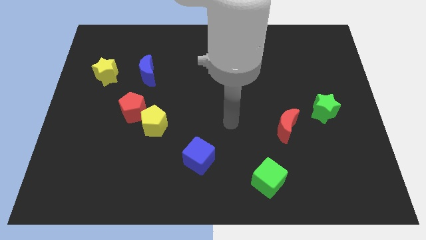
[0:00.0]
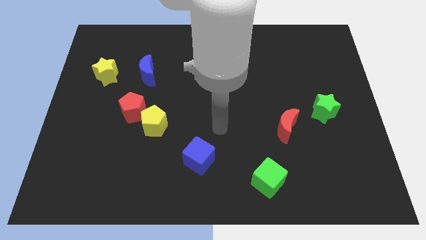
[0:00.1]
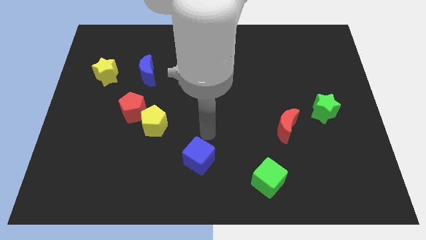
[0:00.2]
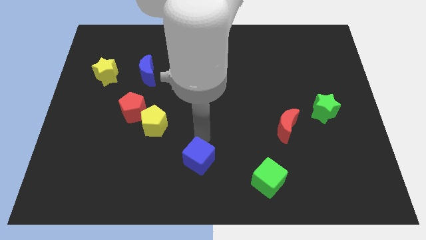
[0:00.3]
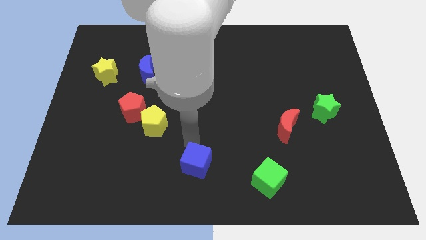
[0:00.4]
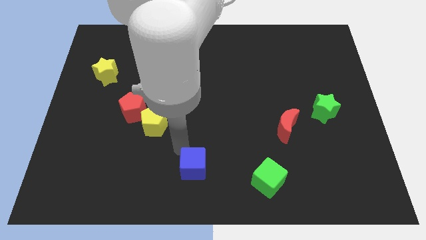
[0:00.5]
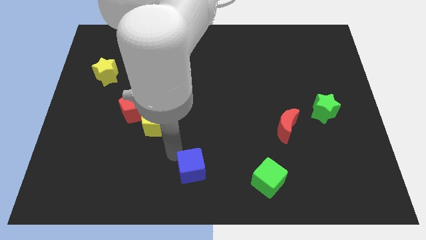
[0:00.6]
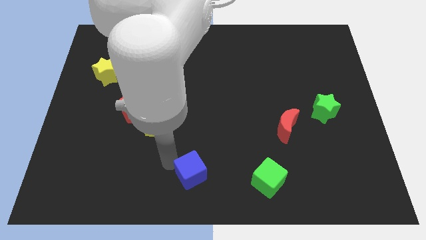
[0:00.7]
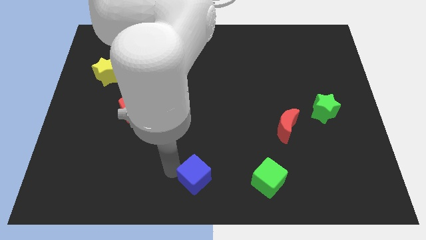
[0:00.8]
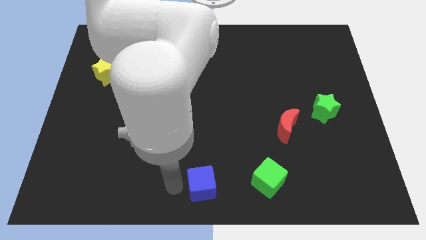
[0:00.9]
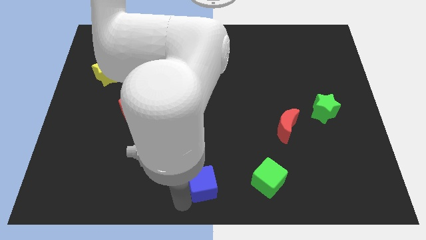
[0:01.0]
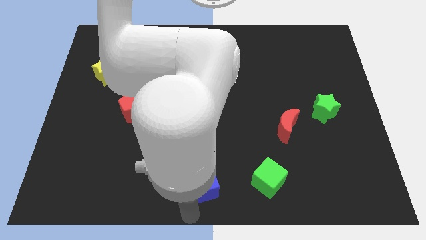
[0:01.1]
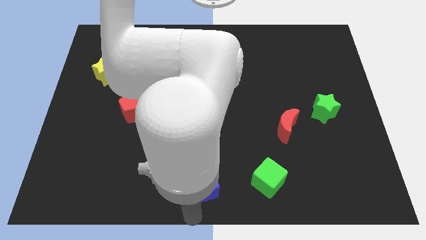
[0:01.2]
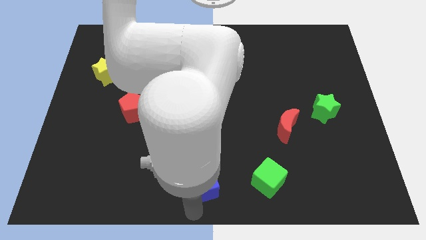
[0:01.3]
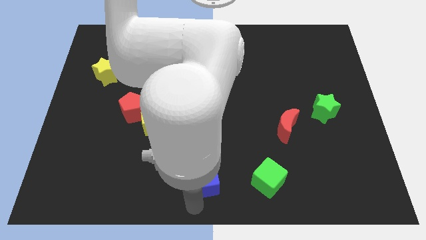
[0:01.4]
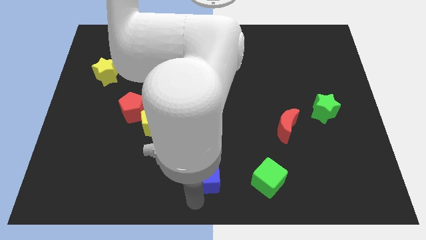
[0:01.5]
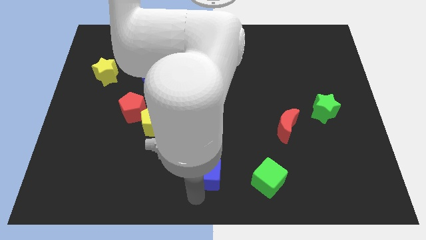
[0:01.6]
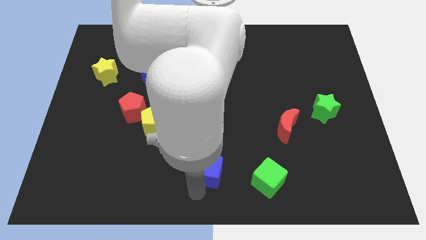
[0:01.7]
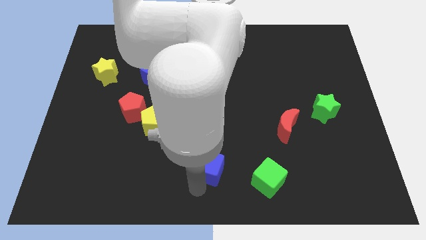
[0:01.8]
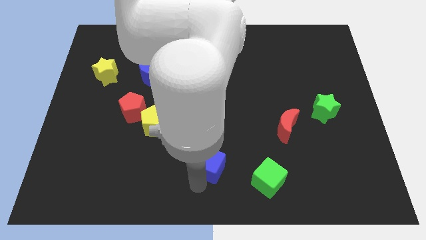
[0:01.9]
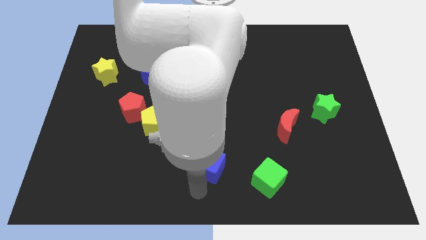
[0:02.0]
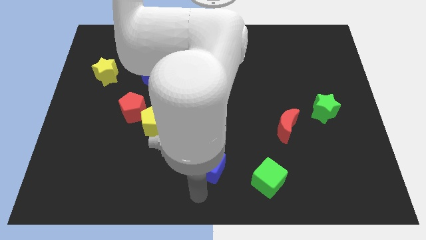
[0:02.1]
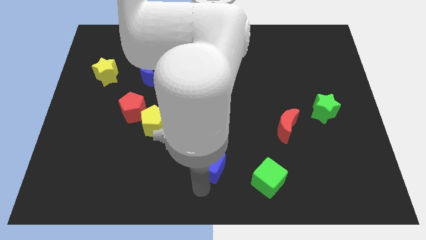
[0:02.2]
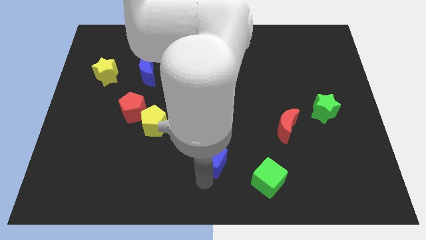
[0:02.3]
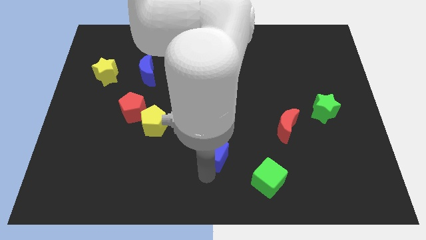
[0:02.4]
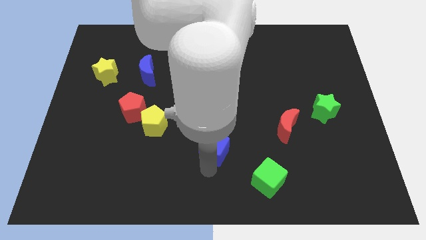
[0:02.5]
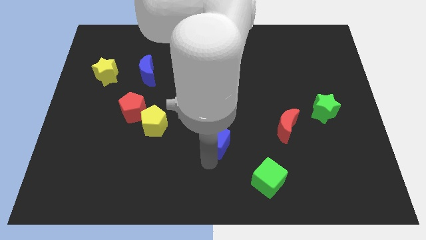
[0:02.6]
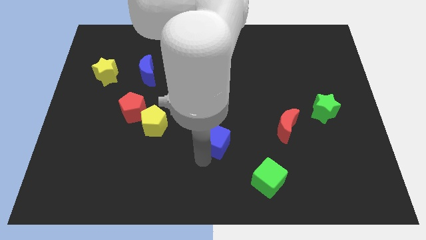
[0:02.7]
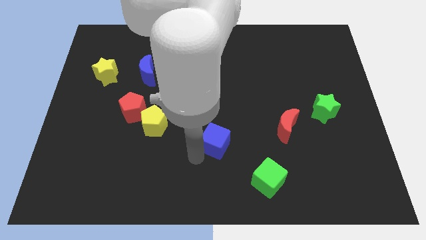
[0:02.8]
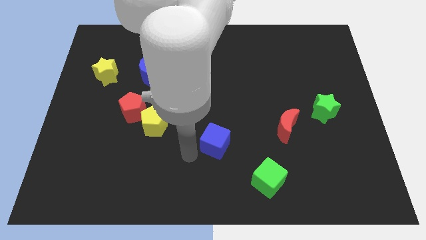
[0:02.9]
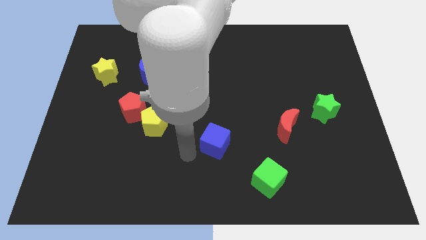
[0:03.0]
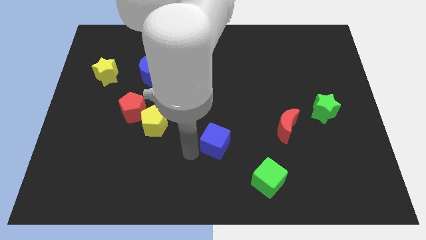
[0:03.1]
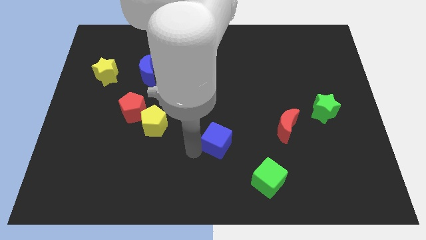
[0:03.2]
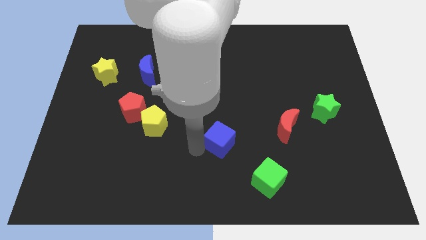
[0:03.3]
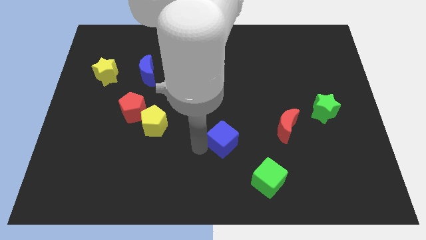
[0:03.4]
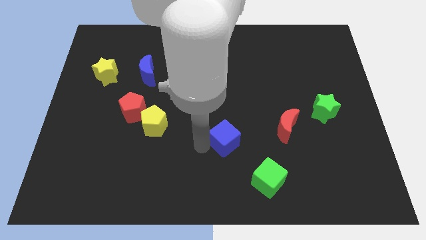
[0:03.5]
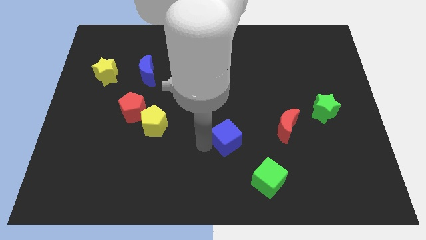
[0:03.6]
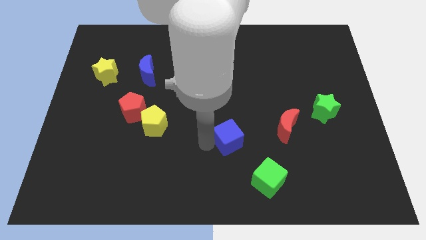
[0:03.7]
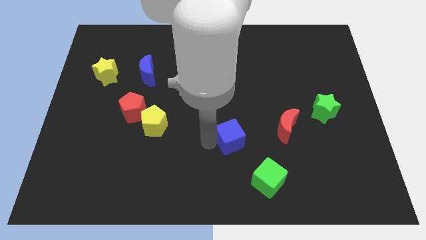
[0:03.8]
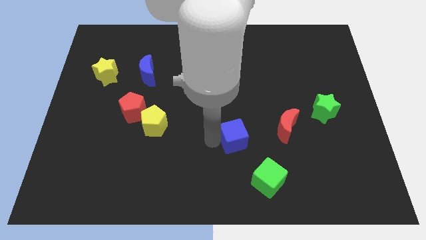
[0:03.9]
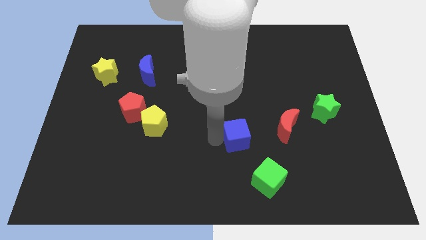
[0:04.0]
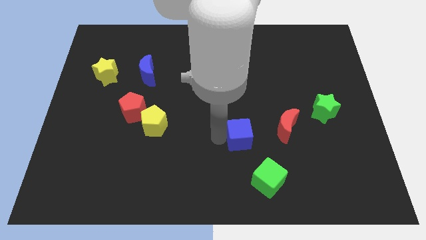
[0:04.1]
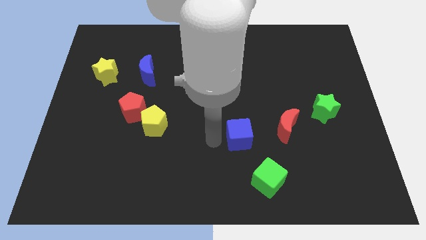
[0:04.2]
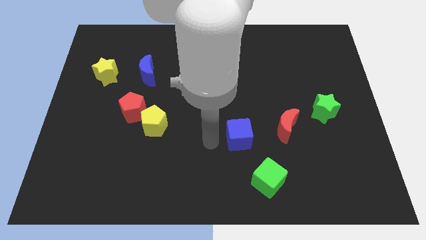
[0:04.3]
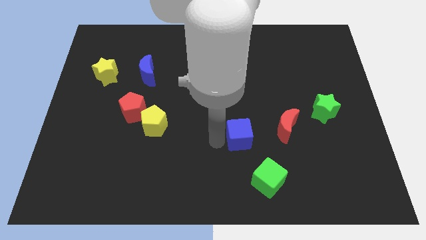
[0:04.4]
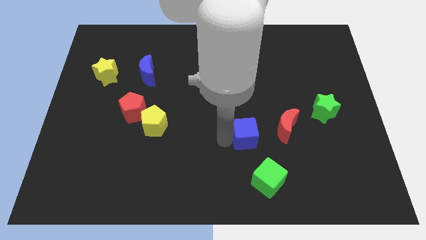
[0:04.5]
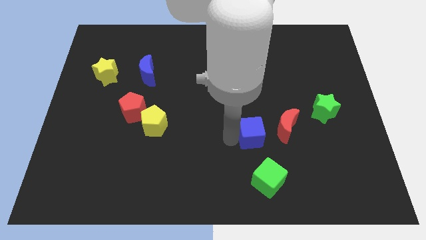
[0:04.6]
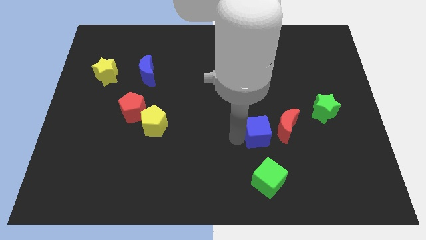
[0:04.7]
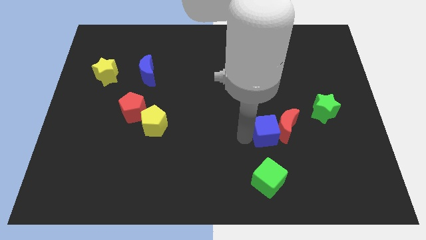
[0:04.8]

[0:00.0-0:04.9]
slide the blue cube towards the red moon

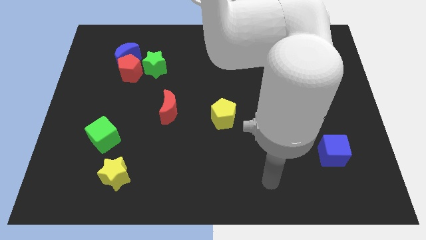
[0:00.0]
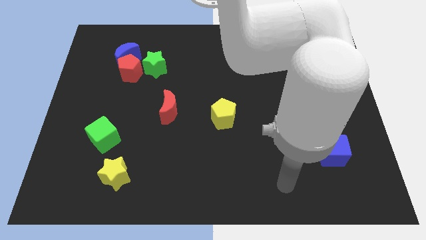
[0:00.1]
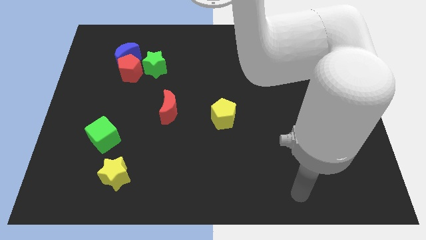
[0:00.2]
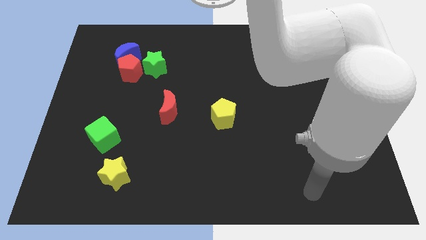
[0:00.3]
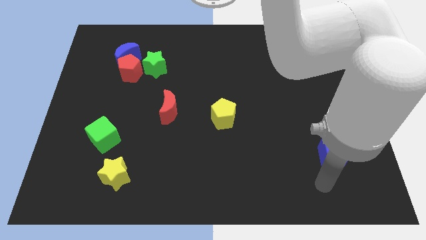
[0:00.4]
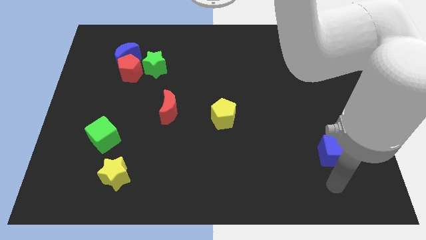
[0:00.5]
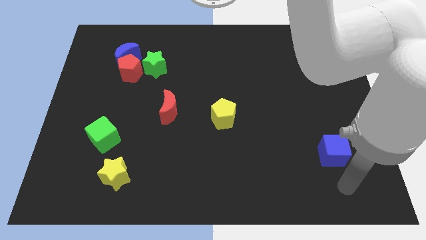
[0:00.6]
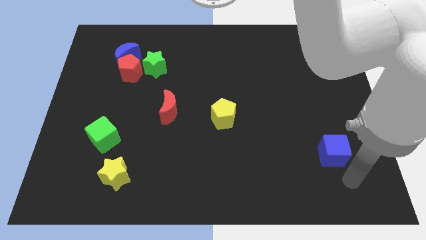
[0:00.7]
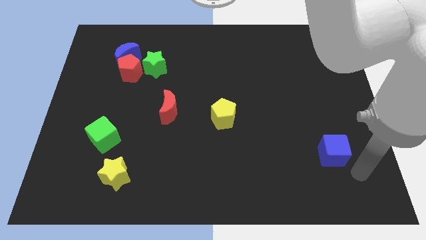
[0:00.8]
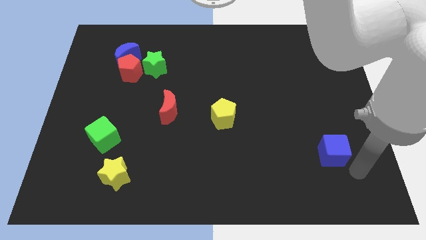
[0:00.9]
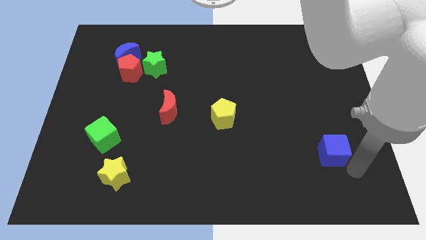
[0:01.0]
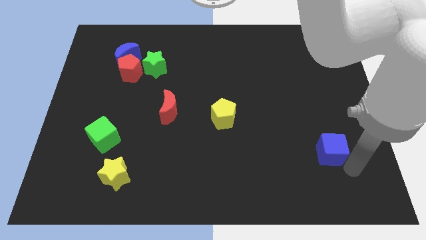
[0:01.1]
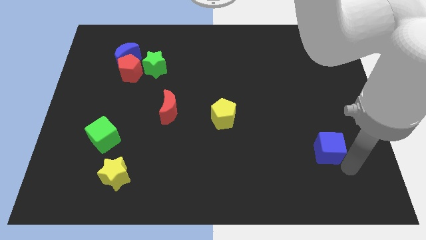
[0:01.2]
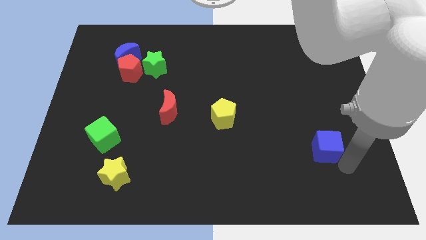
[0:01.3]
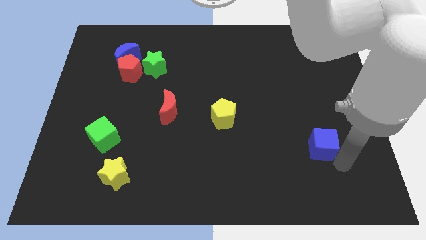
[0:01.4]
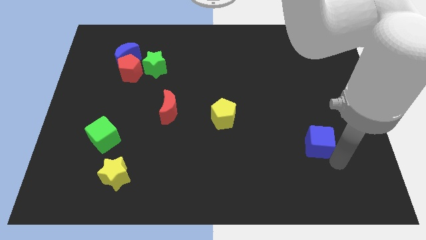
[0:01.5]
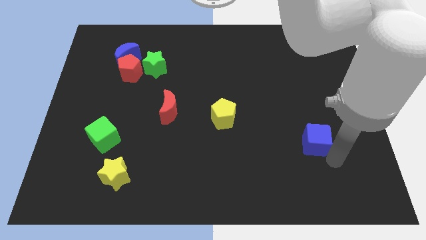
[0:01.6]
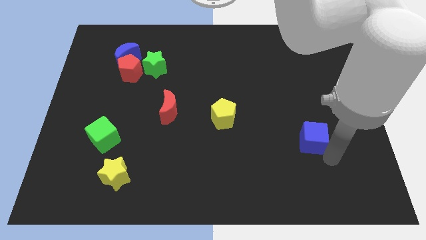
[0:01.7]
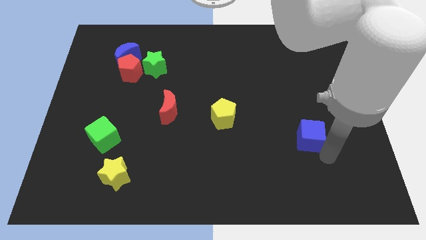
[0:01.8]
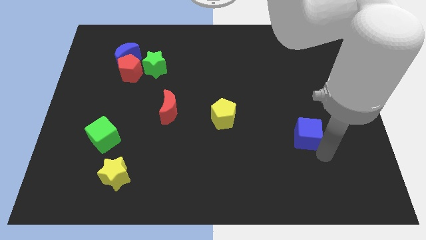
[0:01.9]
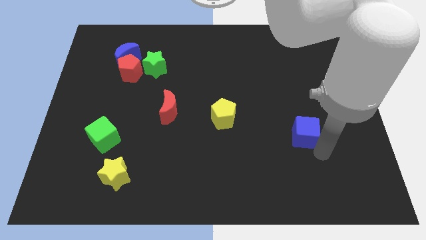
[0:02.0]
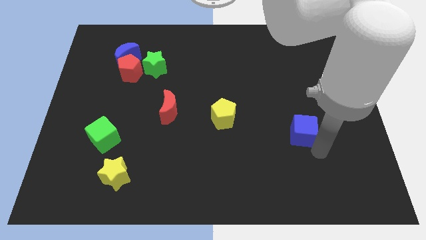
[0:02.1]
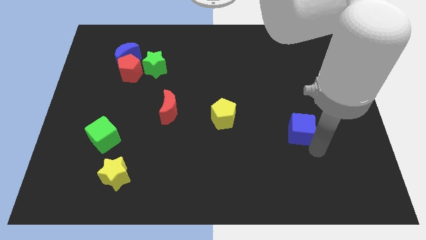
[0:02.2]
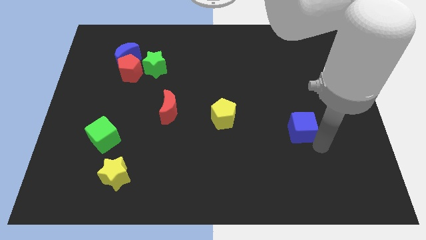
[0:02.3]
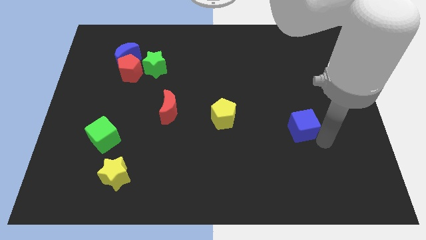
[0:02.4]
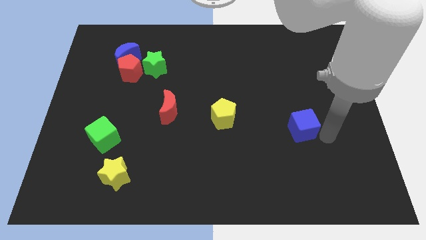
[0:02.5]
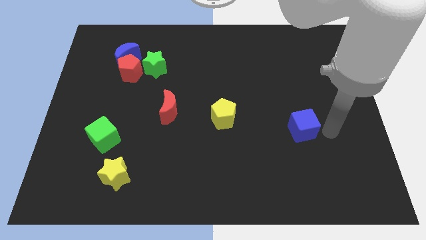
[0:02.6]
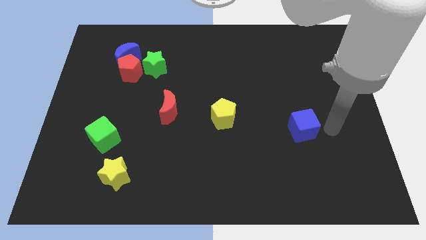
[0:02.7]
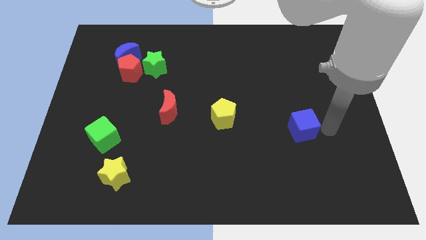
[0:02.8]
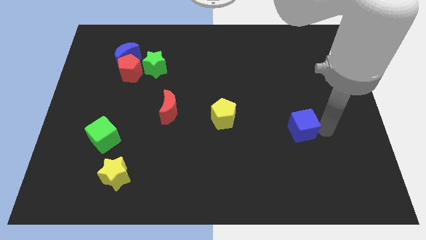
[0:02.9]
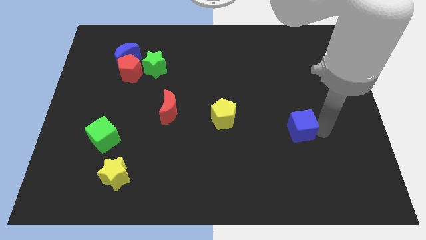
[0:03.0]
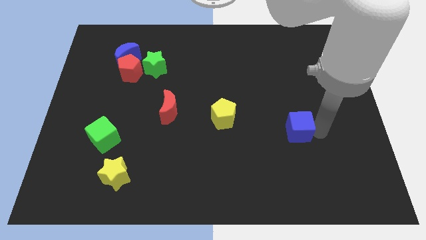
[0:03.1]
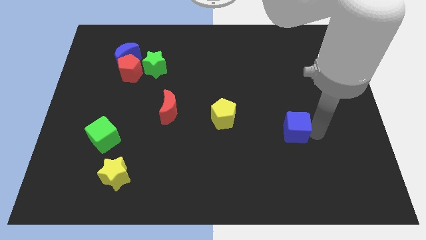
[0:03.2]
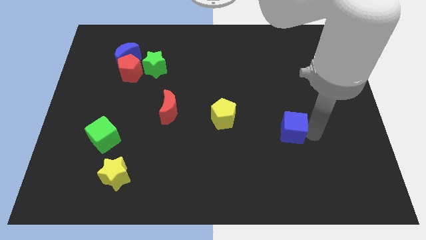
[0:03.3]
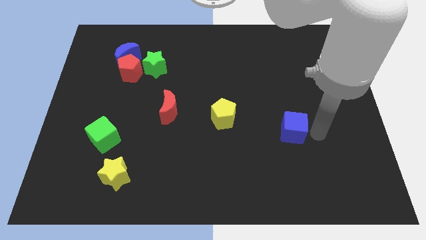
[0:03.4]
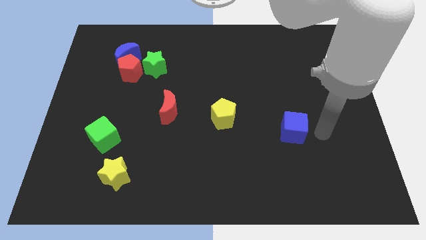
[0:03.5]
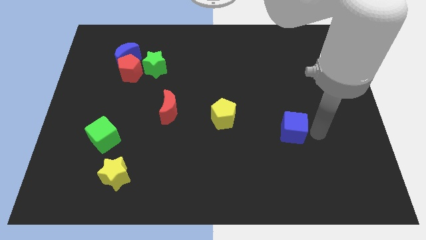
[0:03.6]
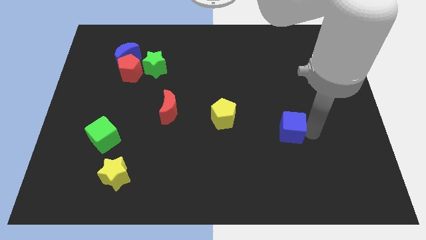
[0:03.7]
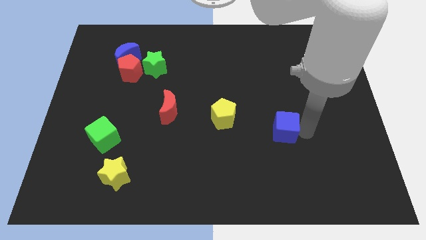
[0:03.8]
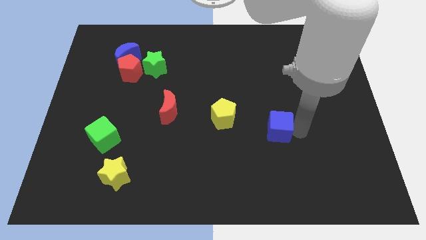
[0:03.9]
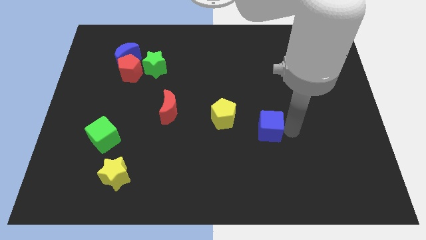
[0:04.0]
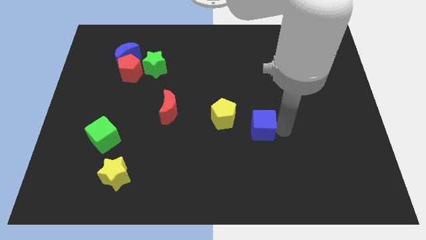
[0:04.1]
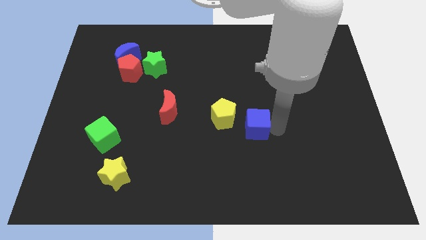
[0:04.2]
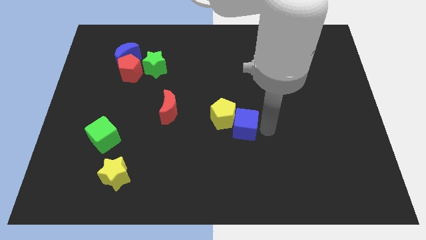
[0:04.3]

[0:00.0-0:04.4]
push the blue cube to the yellow pentagon
